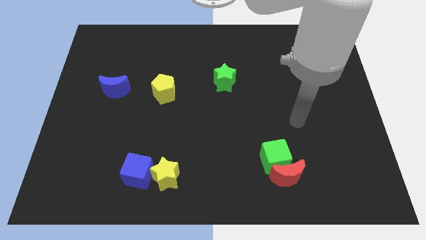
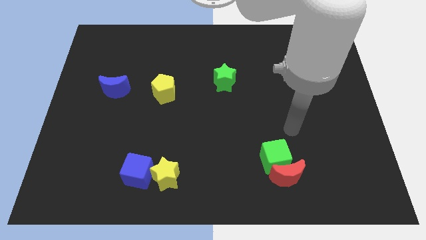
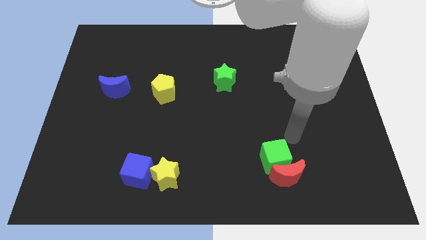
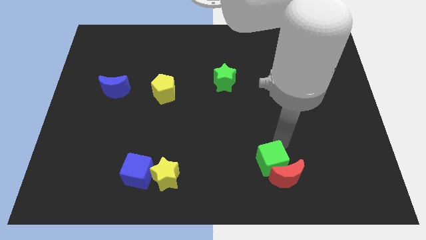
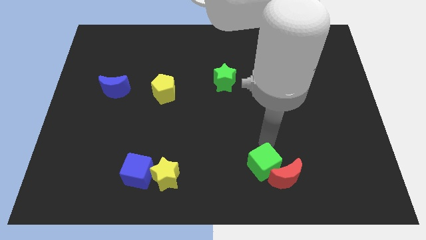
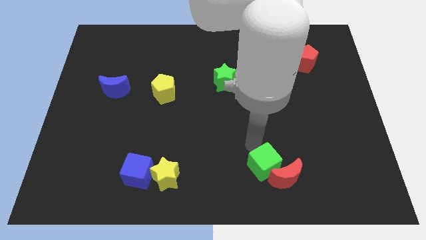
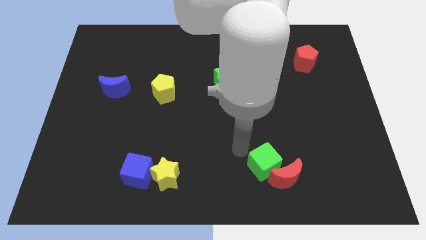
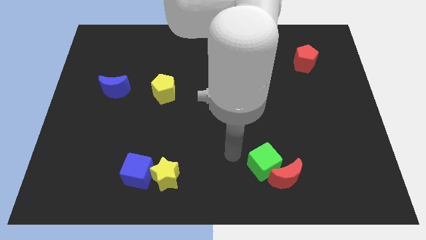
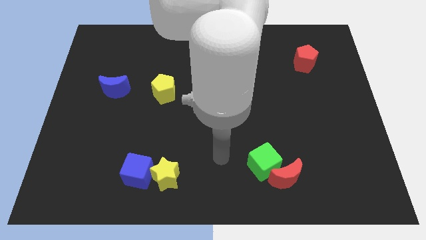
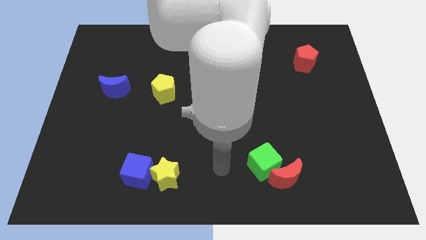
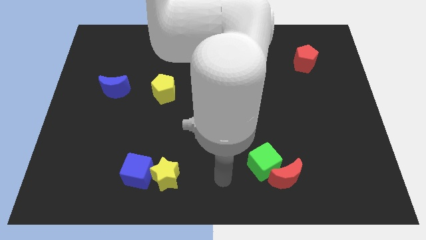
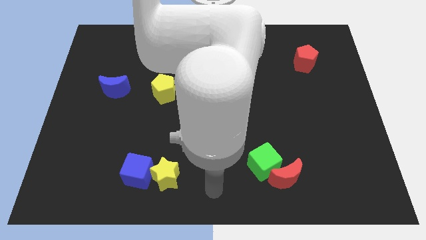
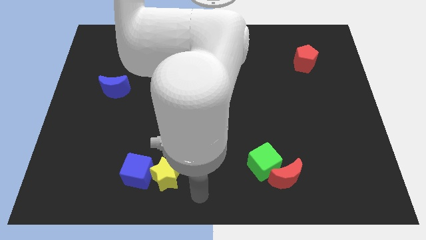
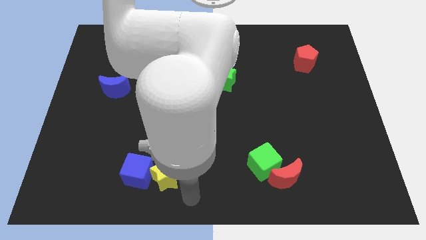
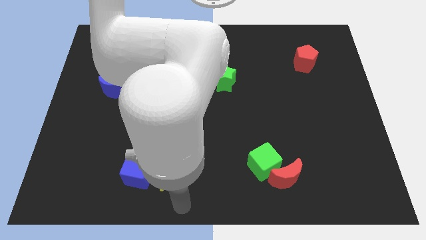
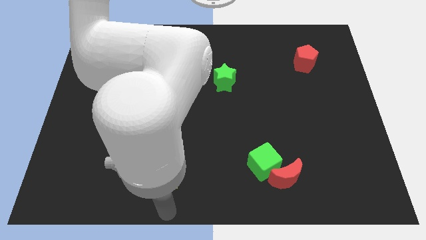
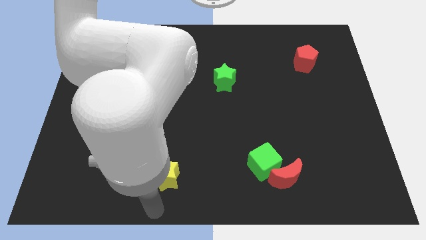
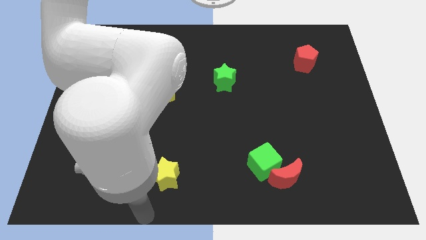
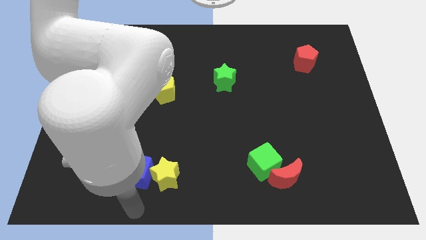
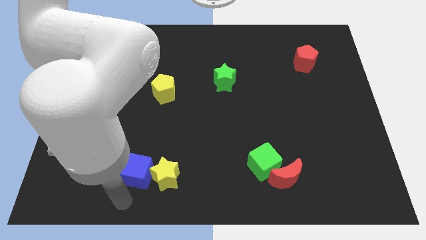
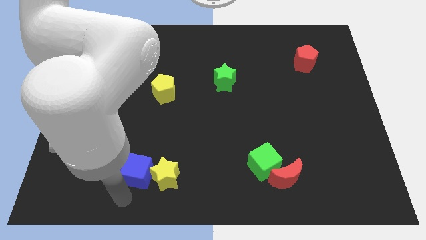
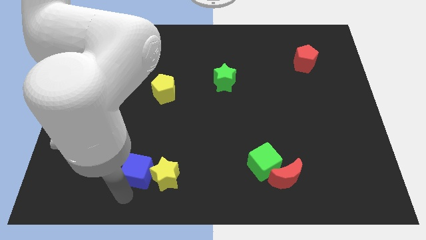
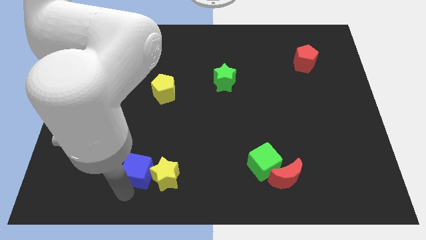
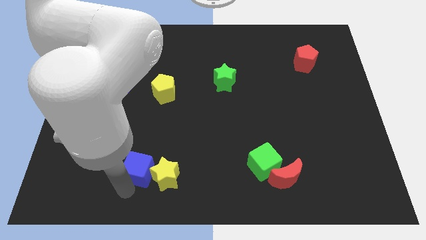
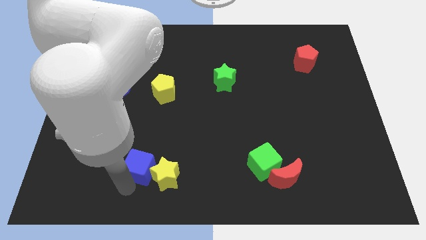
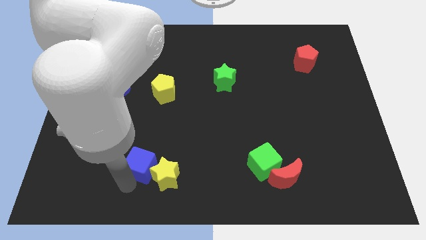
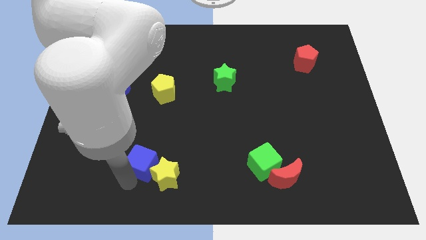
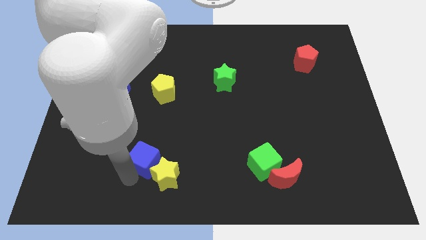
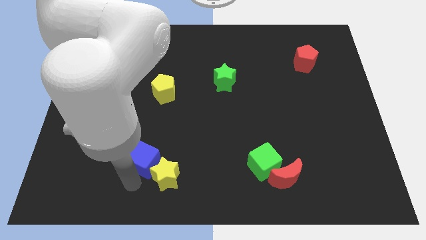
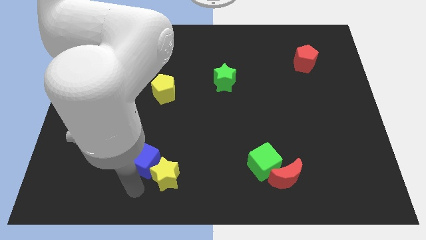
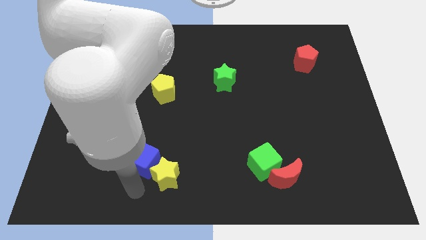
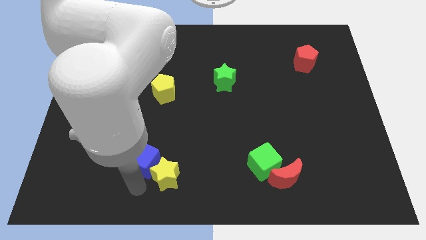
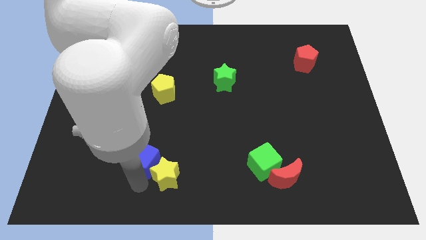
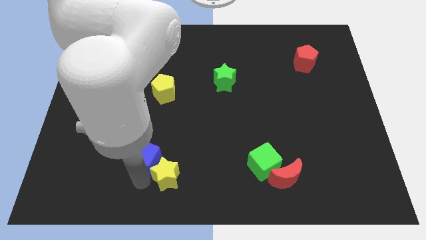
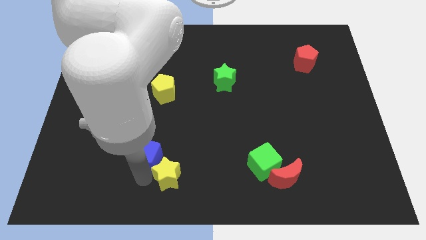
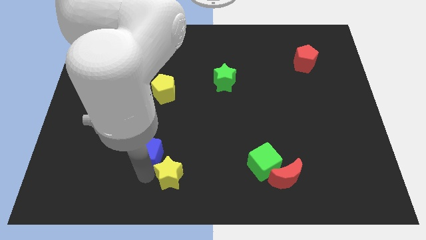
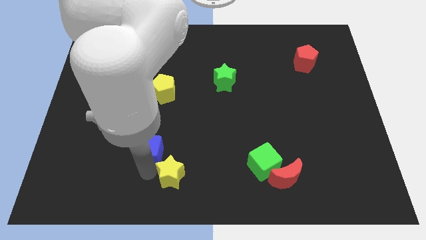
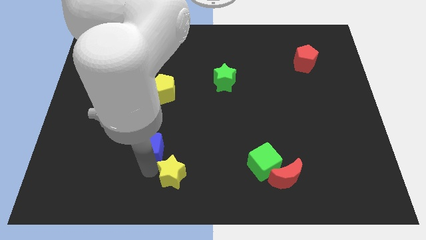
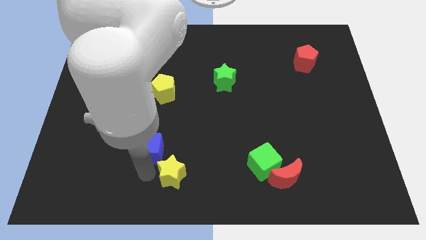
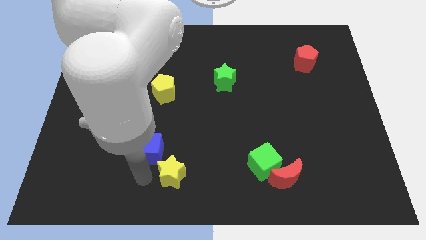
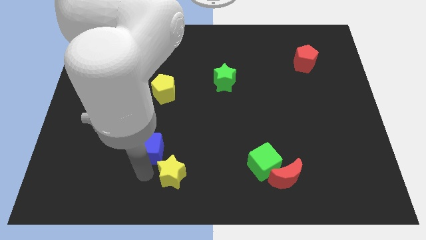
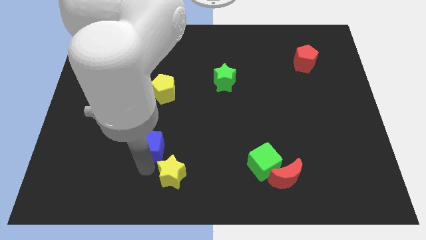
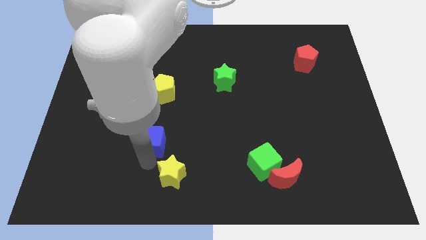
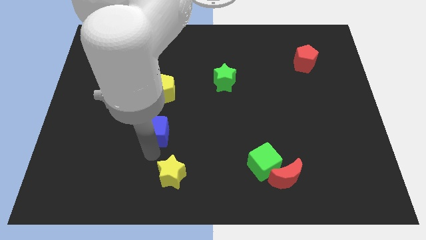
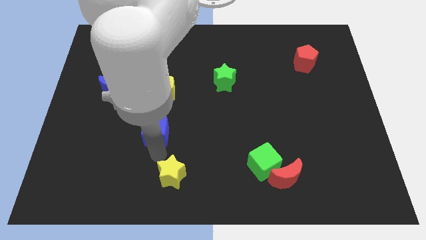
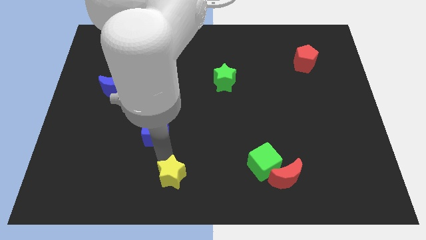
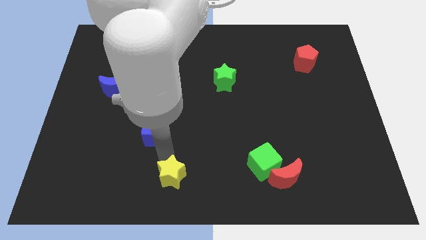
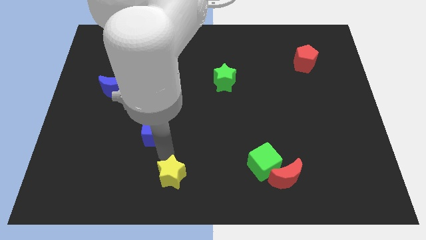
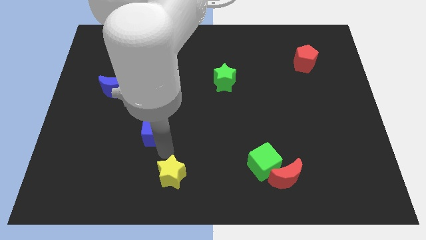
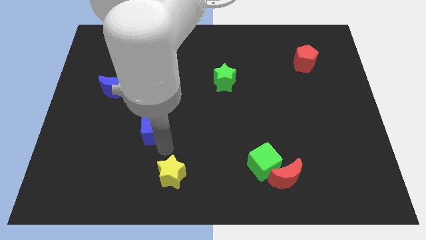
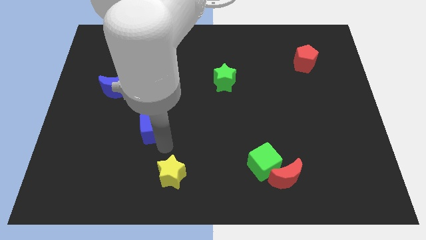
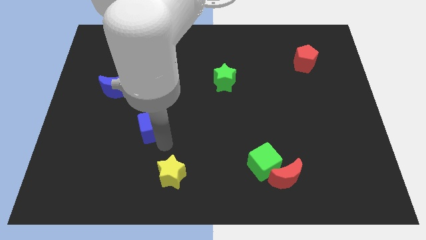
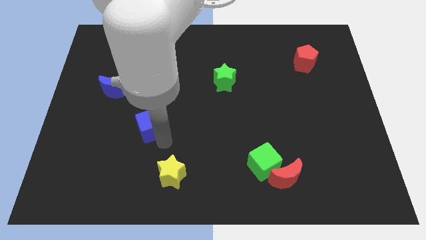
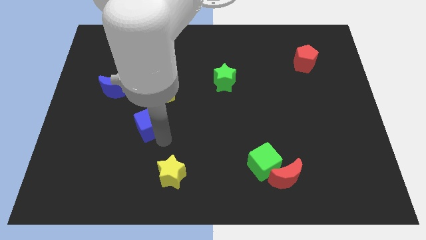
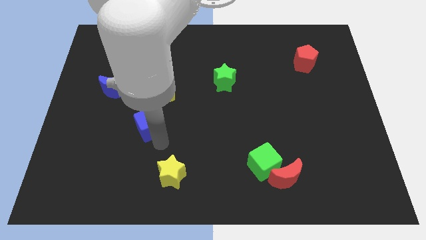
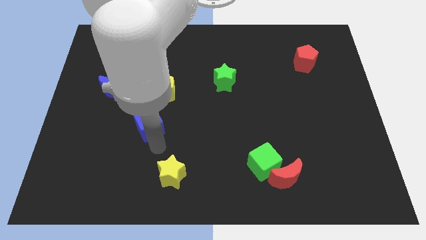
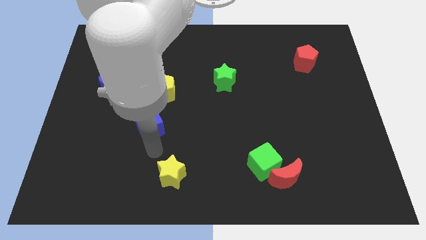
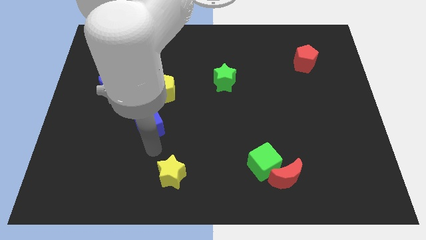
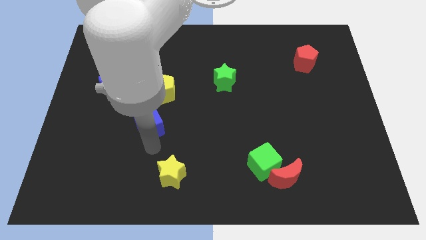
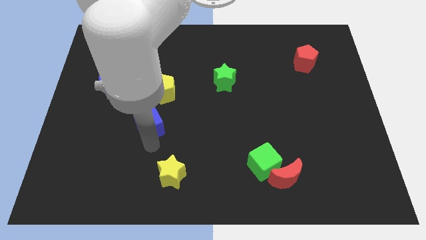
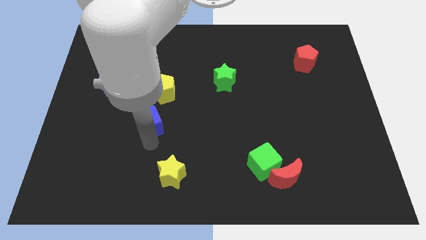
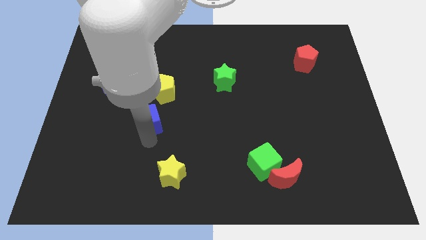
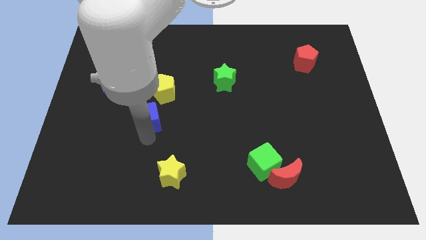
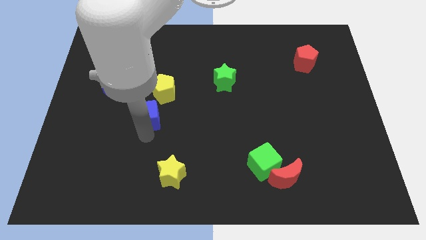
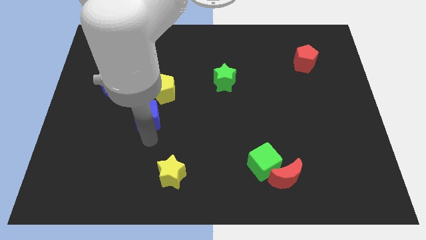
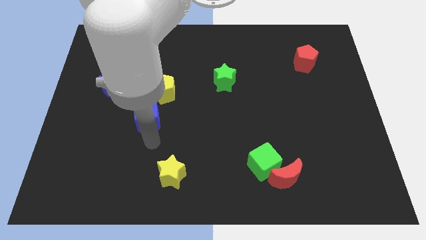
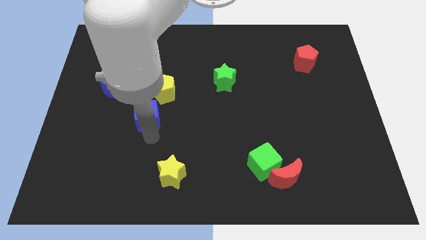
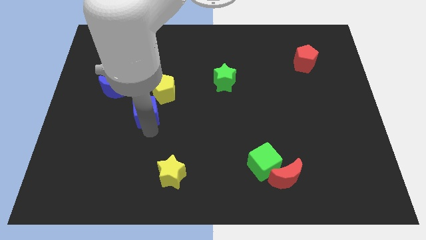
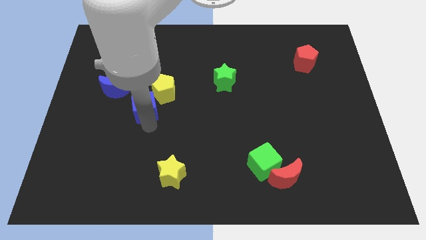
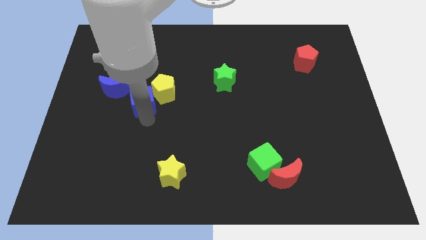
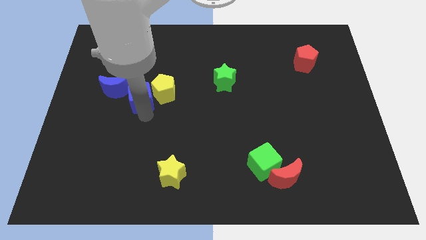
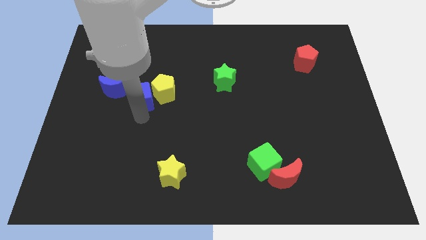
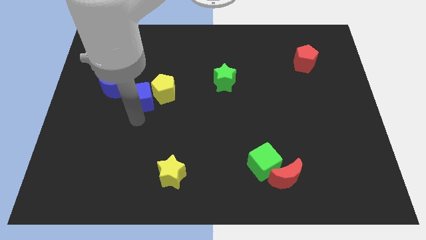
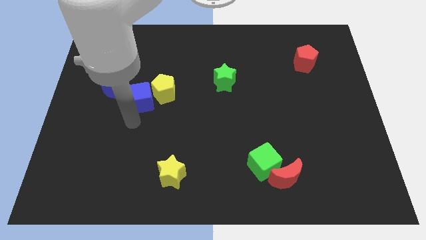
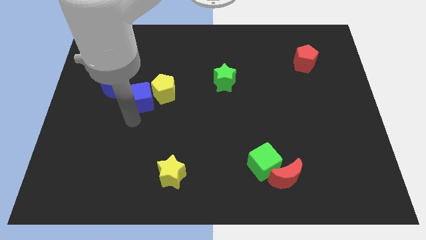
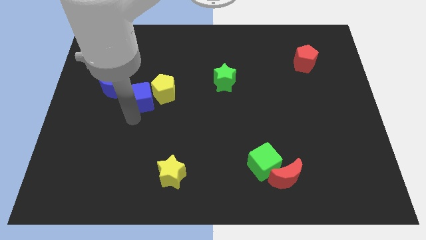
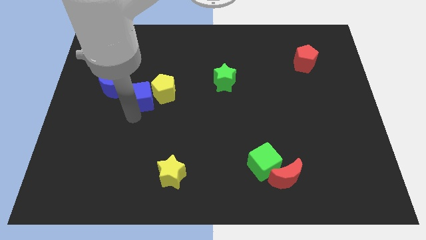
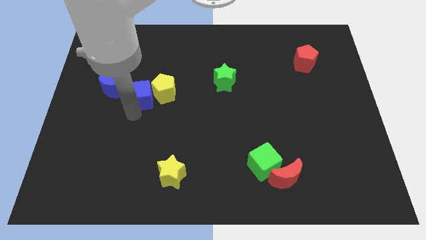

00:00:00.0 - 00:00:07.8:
move the blue cube up
